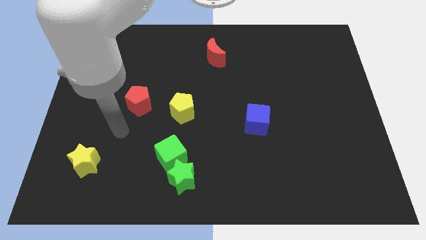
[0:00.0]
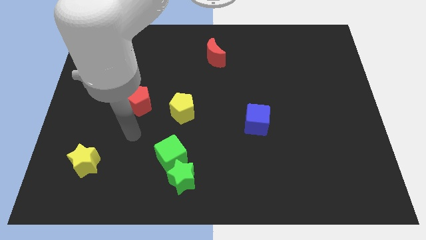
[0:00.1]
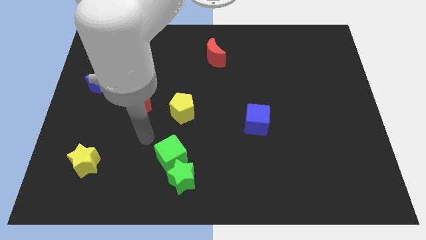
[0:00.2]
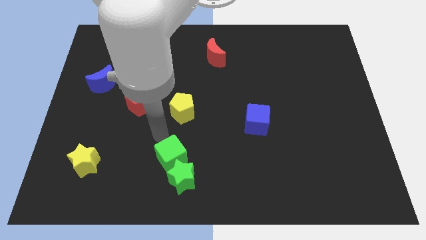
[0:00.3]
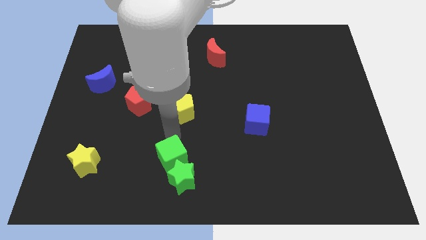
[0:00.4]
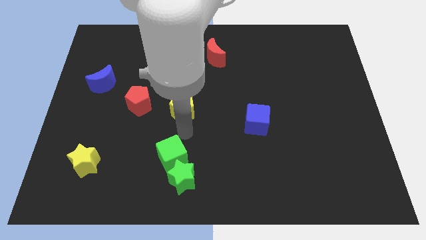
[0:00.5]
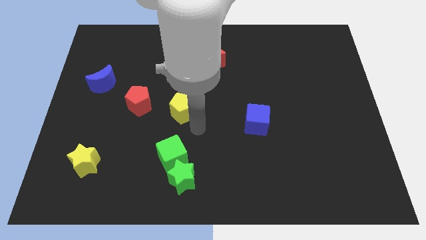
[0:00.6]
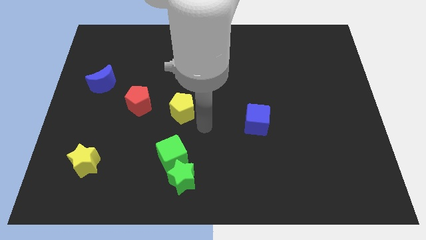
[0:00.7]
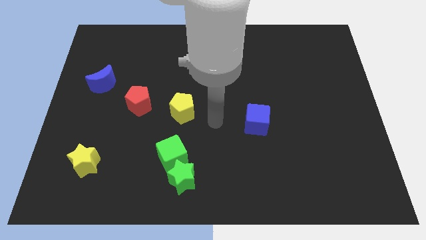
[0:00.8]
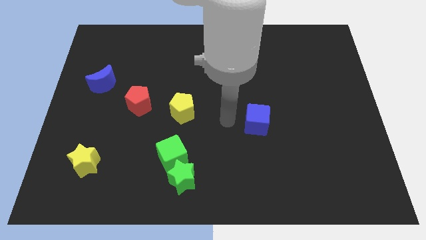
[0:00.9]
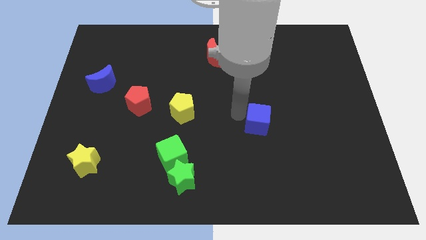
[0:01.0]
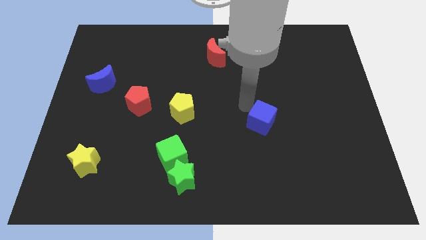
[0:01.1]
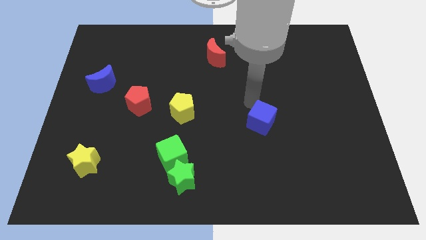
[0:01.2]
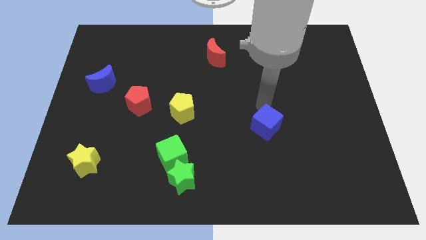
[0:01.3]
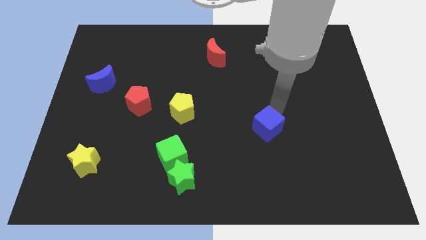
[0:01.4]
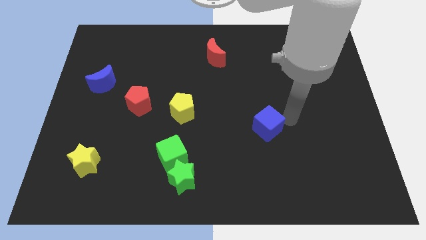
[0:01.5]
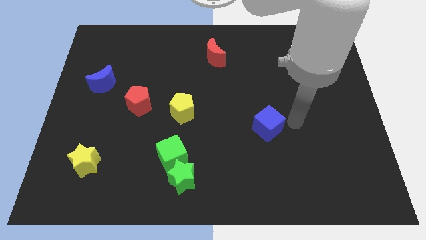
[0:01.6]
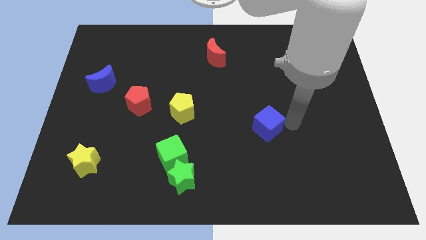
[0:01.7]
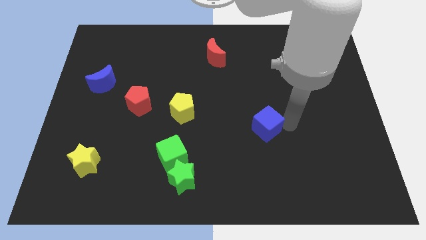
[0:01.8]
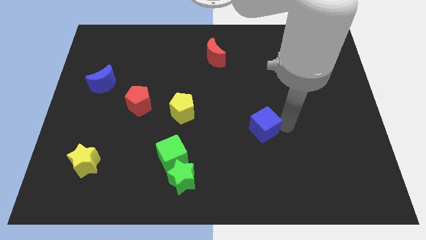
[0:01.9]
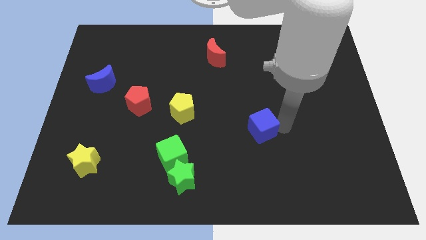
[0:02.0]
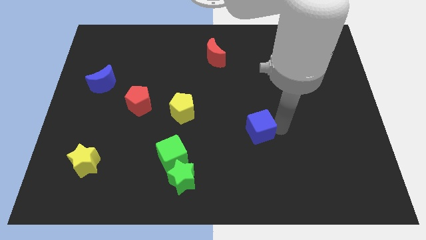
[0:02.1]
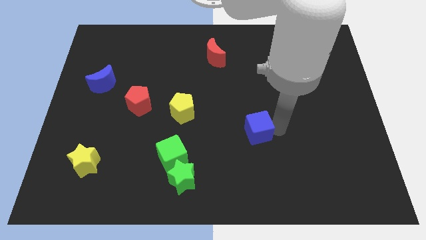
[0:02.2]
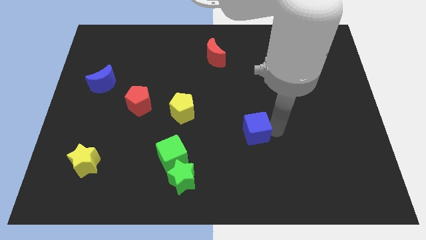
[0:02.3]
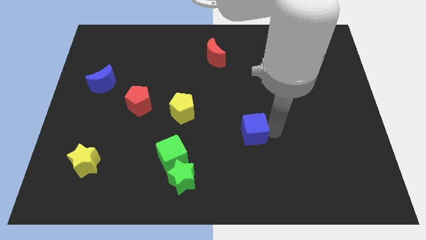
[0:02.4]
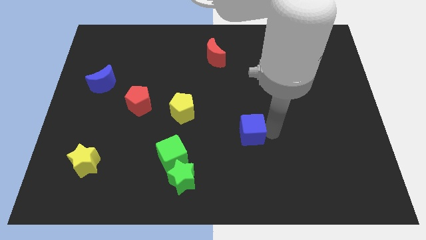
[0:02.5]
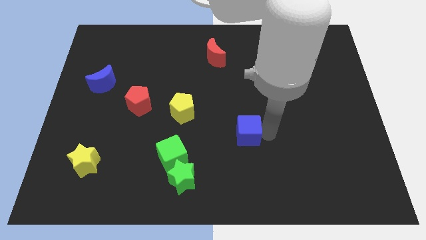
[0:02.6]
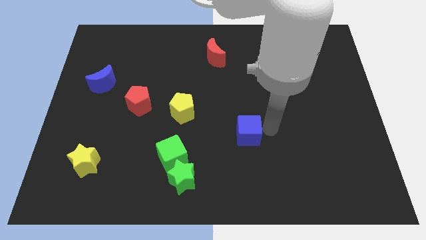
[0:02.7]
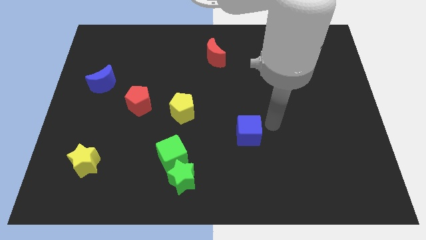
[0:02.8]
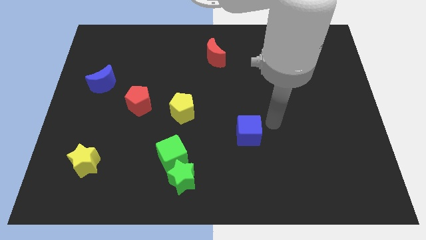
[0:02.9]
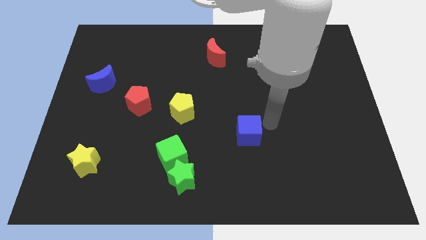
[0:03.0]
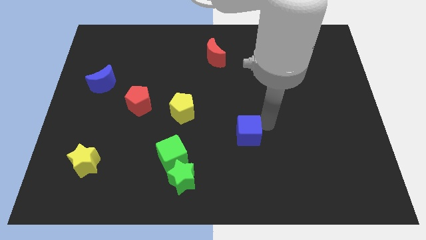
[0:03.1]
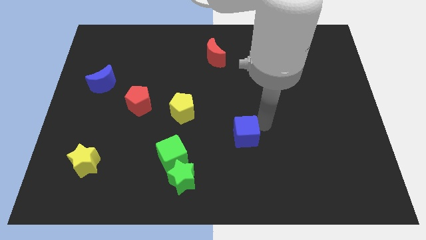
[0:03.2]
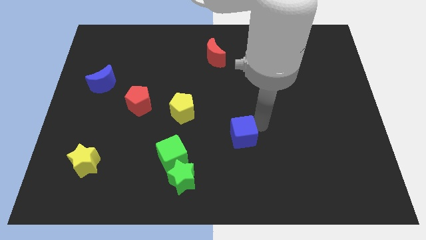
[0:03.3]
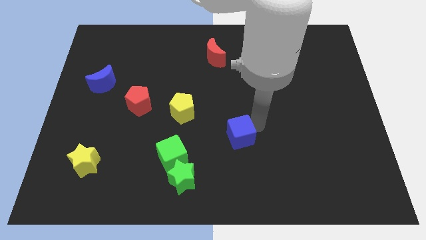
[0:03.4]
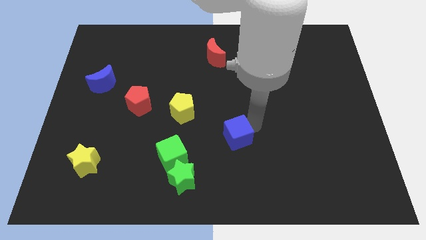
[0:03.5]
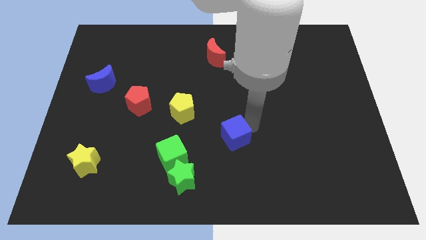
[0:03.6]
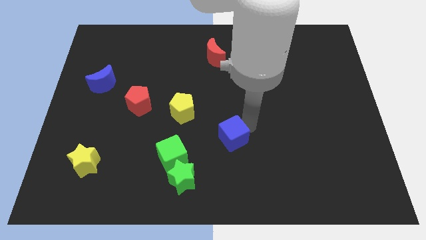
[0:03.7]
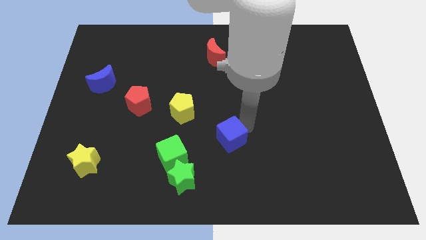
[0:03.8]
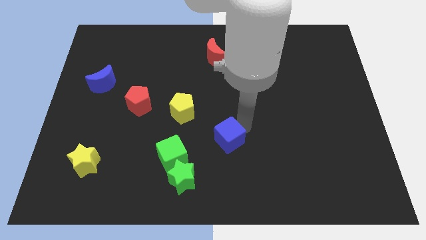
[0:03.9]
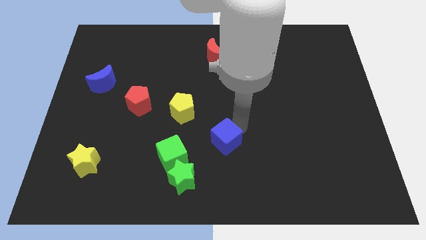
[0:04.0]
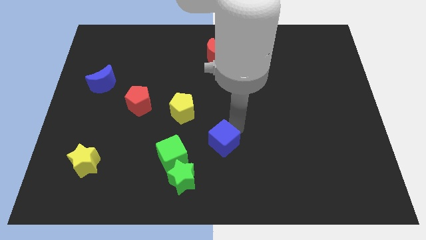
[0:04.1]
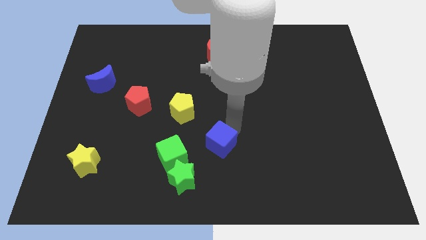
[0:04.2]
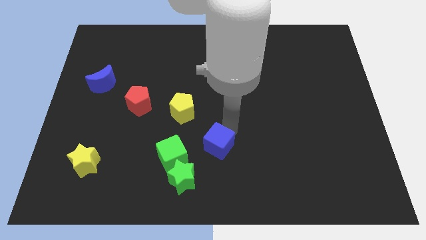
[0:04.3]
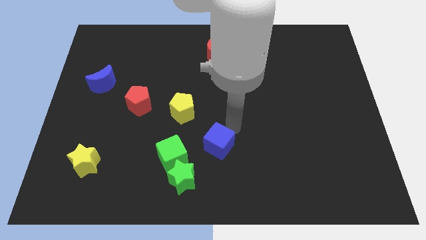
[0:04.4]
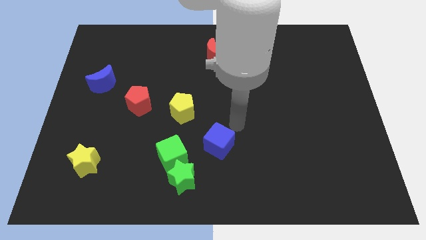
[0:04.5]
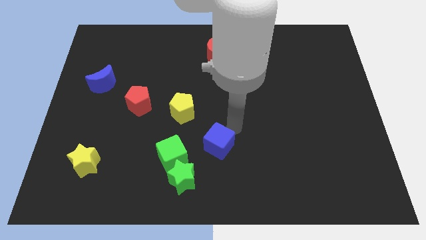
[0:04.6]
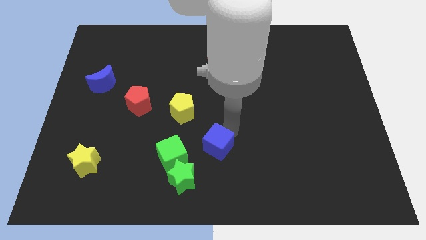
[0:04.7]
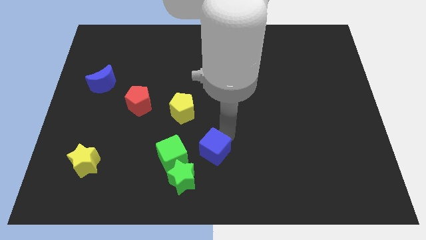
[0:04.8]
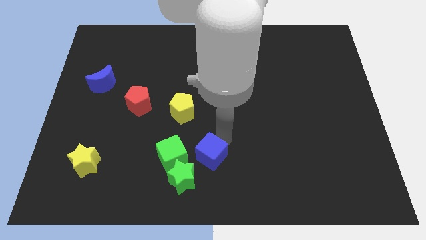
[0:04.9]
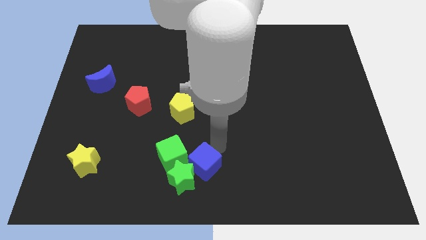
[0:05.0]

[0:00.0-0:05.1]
move the blue cube towards the green star

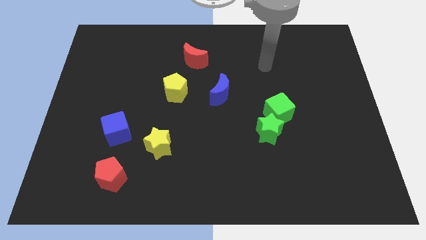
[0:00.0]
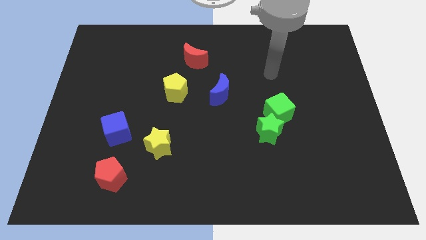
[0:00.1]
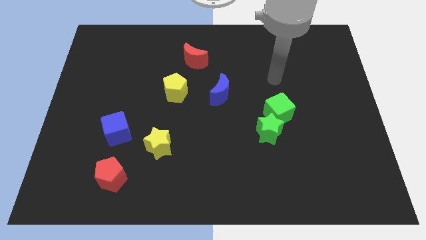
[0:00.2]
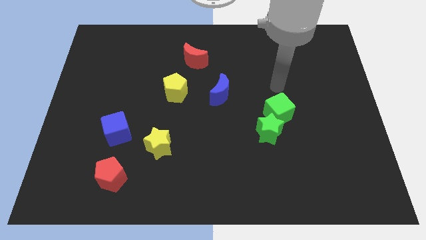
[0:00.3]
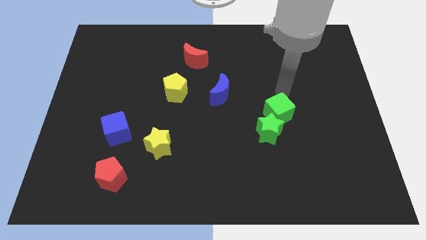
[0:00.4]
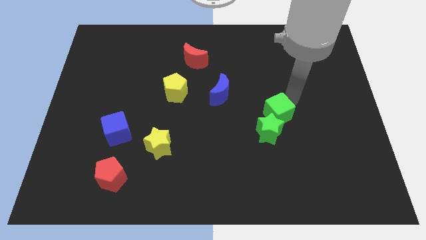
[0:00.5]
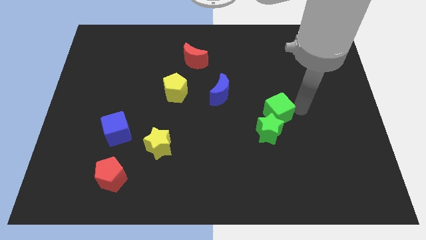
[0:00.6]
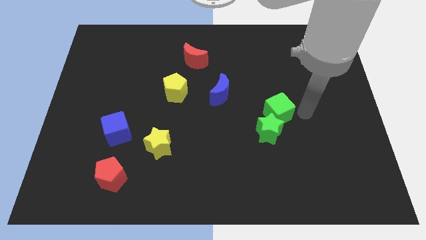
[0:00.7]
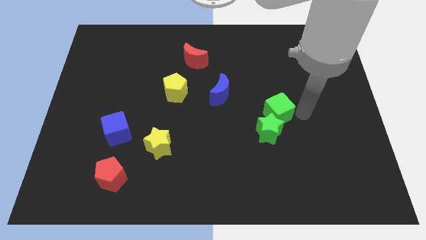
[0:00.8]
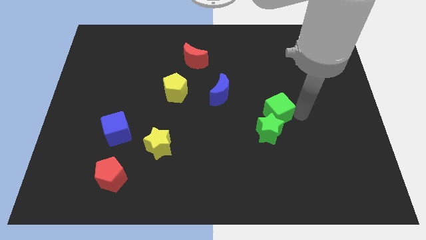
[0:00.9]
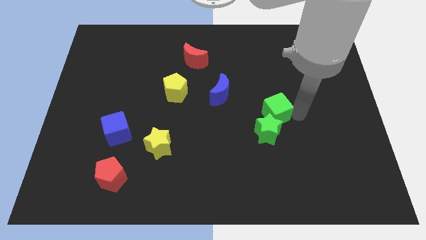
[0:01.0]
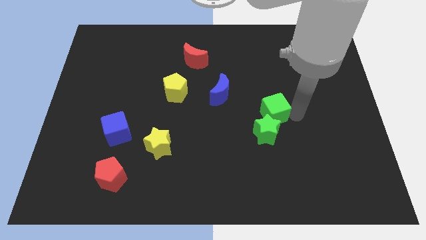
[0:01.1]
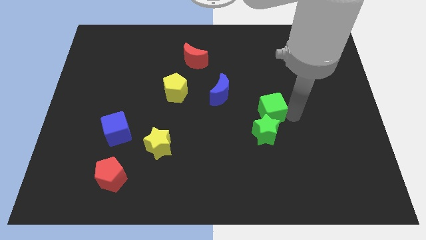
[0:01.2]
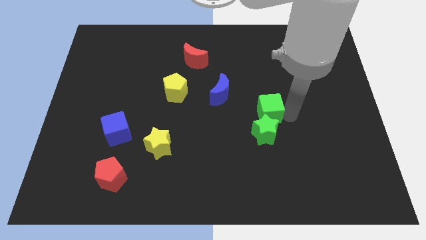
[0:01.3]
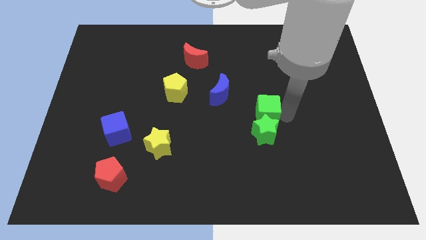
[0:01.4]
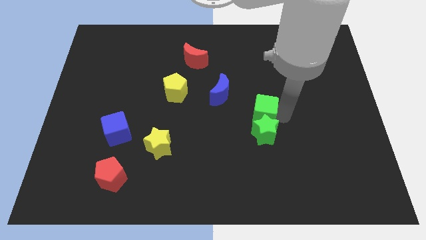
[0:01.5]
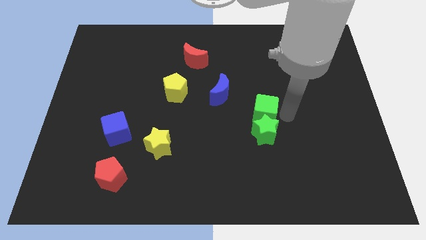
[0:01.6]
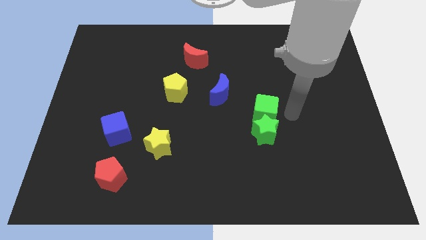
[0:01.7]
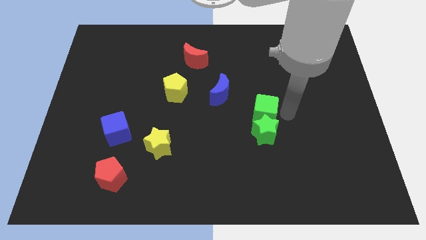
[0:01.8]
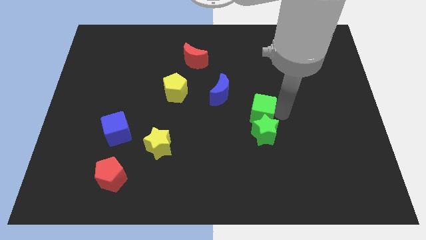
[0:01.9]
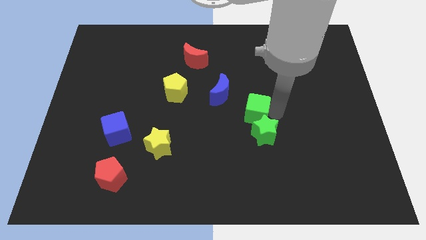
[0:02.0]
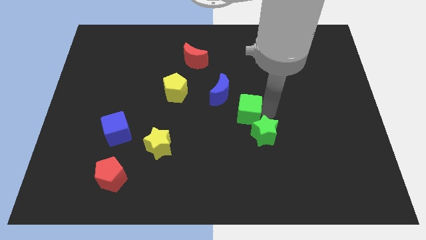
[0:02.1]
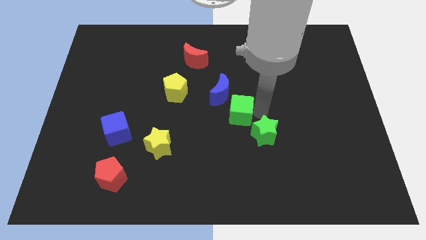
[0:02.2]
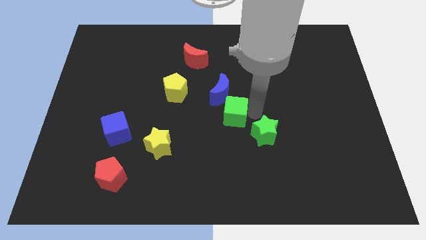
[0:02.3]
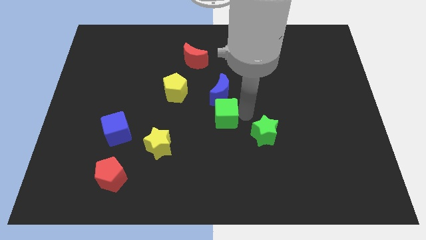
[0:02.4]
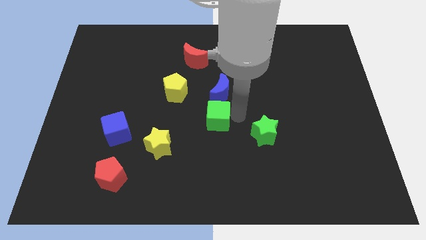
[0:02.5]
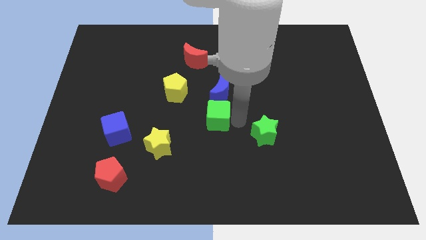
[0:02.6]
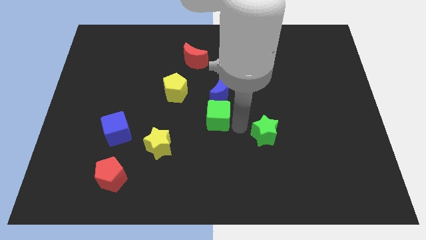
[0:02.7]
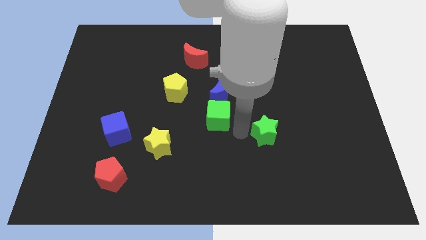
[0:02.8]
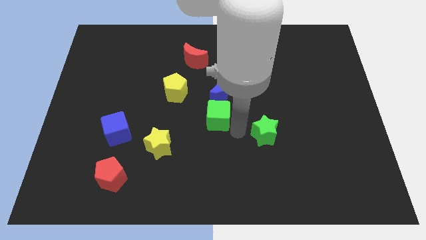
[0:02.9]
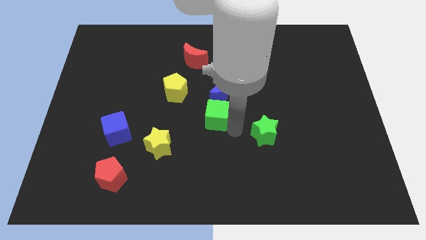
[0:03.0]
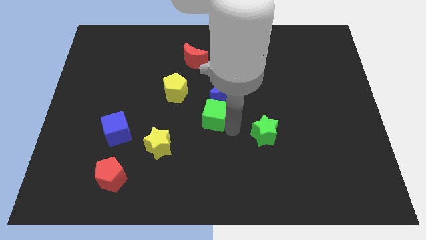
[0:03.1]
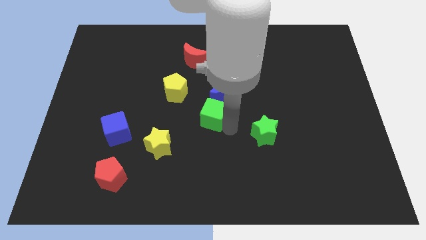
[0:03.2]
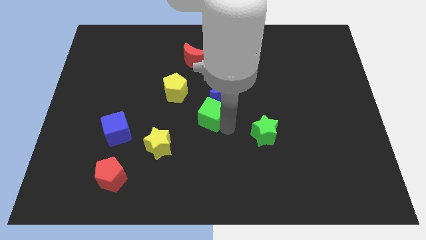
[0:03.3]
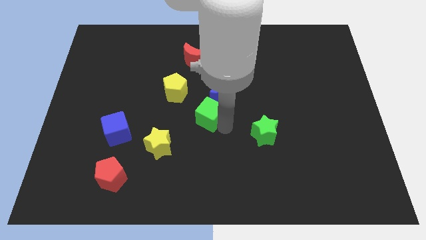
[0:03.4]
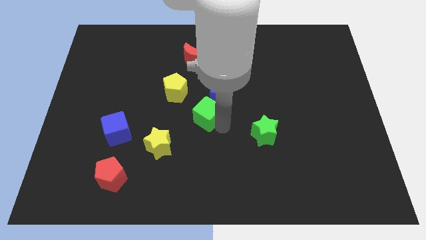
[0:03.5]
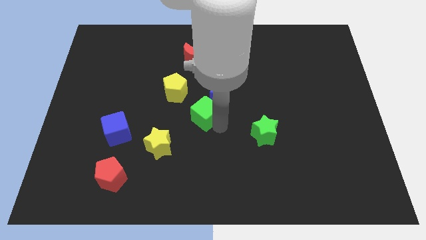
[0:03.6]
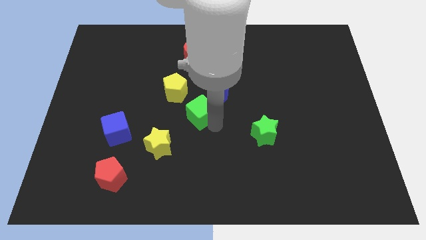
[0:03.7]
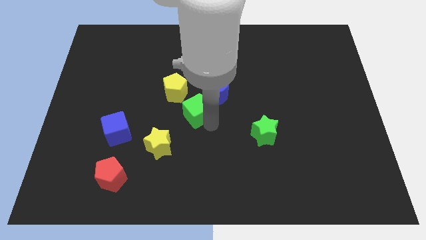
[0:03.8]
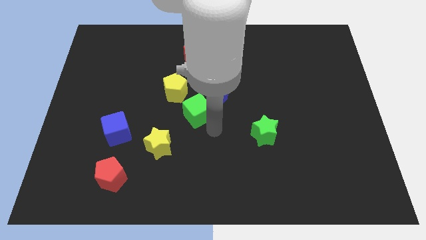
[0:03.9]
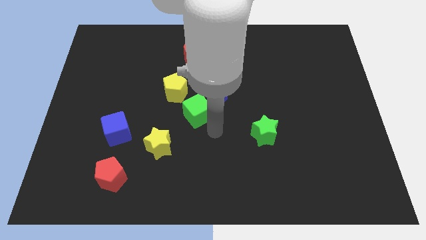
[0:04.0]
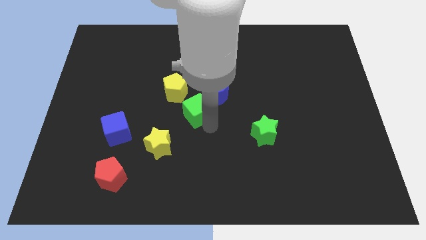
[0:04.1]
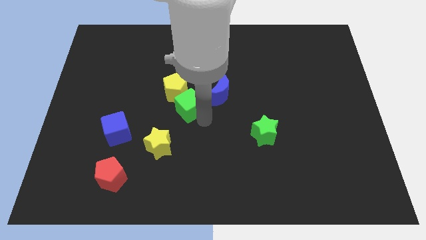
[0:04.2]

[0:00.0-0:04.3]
slide the green cube close to the yellow pentagon
